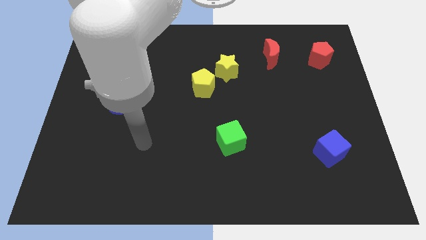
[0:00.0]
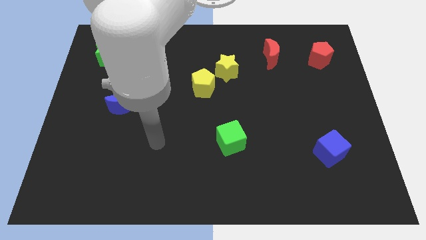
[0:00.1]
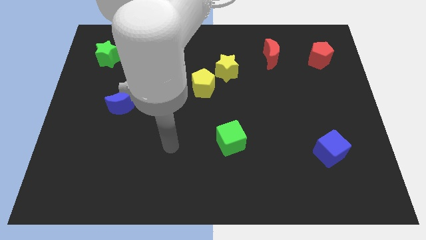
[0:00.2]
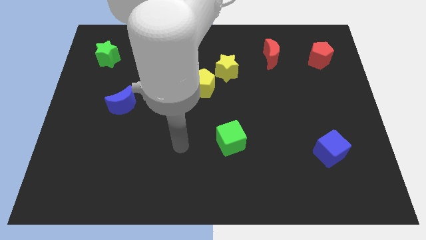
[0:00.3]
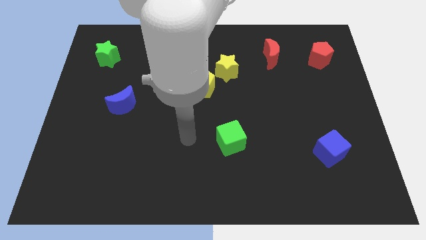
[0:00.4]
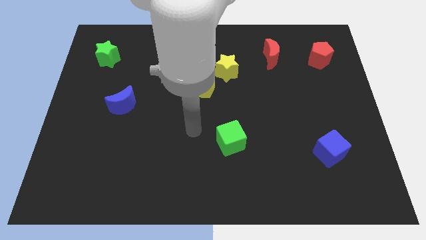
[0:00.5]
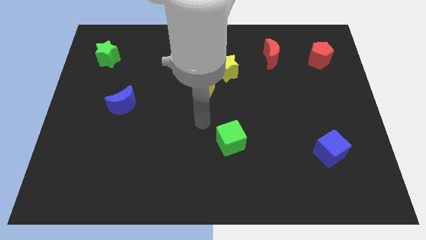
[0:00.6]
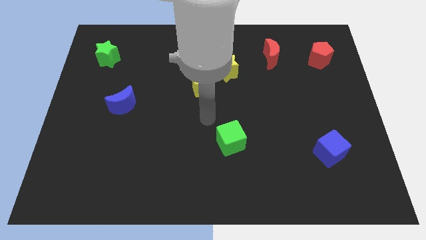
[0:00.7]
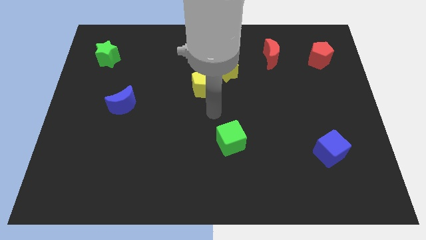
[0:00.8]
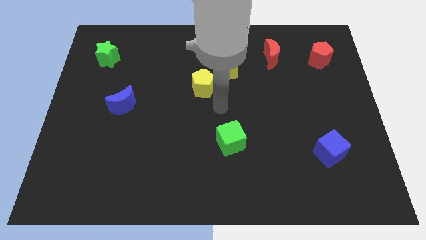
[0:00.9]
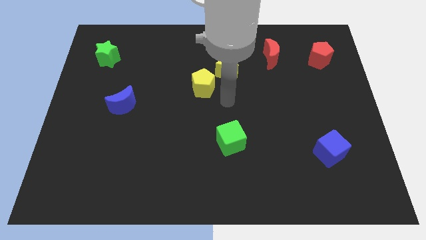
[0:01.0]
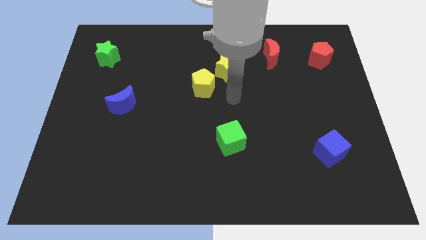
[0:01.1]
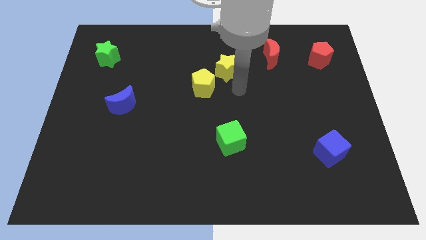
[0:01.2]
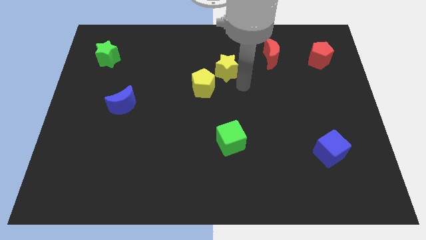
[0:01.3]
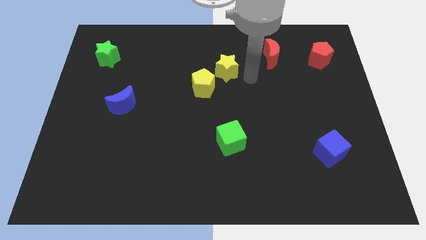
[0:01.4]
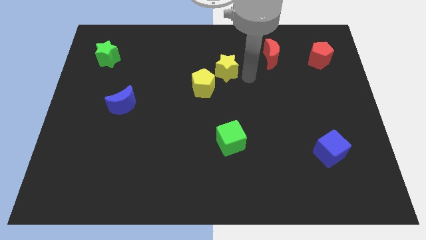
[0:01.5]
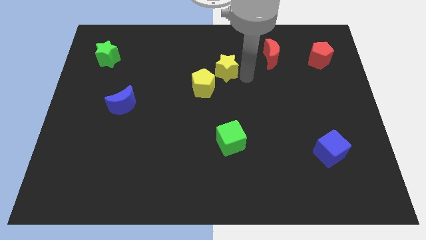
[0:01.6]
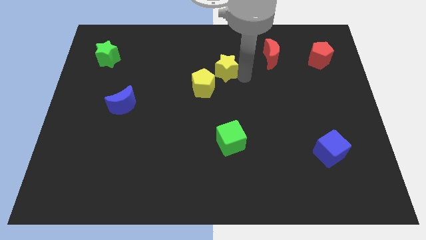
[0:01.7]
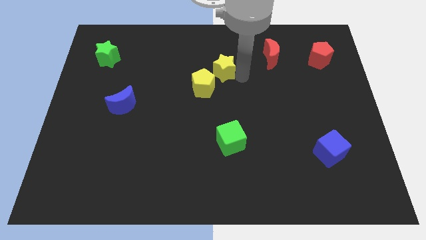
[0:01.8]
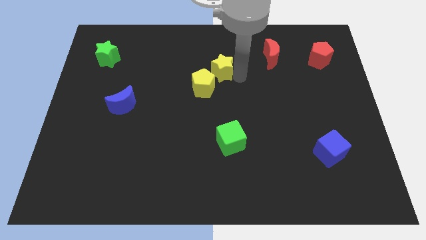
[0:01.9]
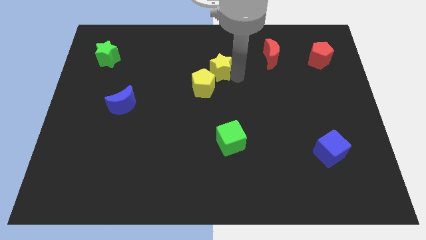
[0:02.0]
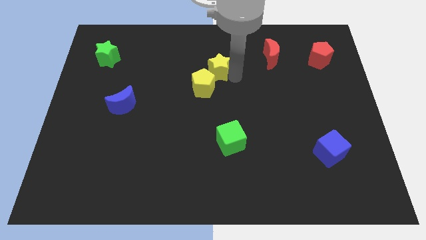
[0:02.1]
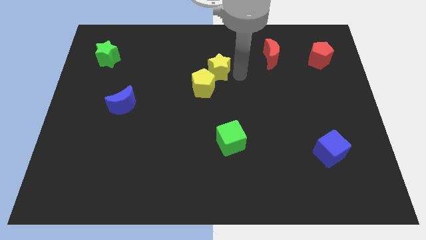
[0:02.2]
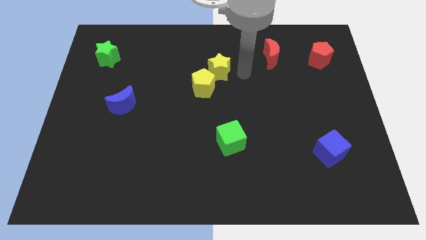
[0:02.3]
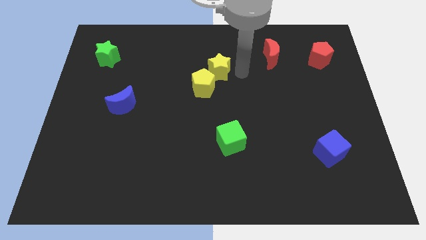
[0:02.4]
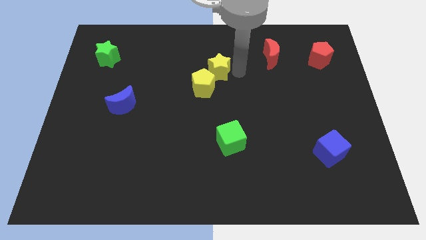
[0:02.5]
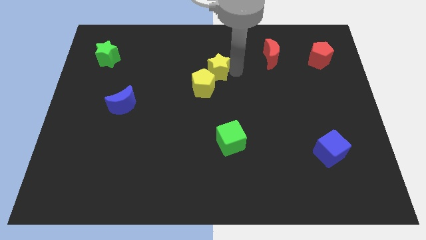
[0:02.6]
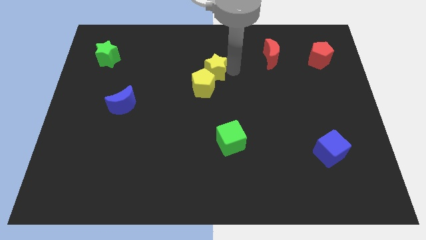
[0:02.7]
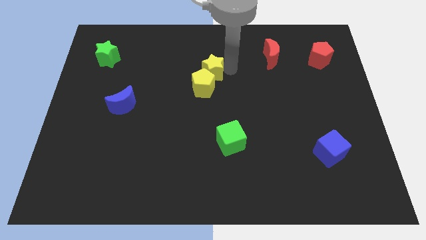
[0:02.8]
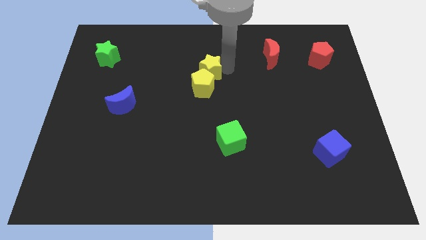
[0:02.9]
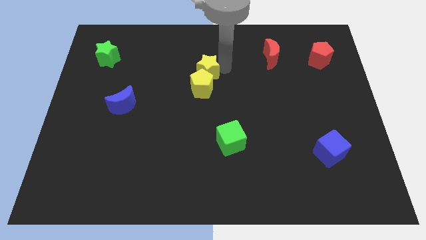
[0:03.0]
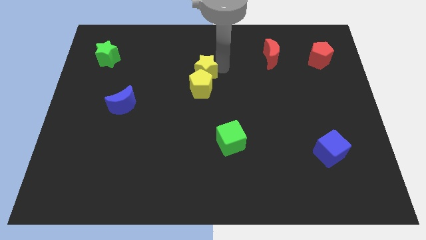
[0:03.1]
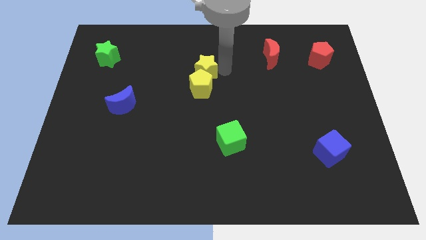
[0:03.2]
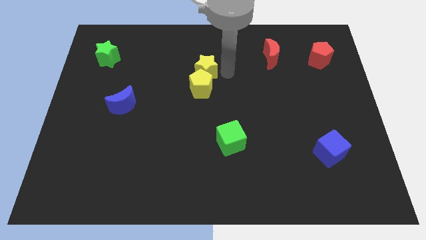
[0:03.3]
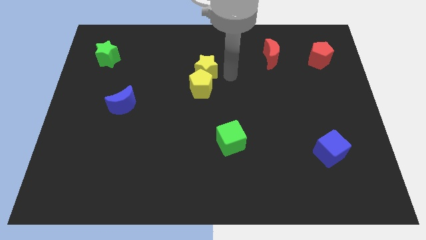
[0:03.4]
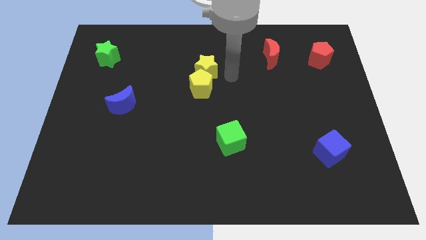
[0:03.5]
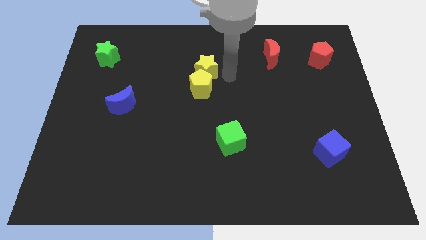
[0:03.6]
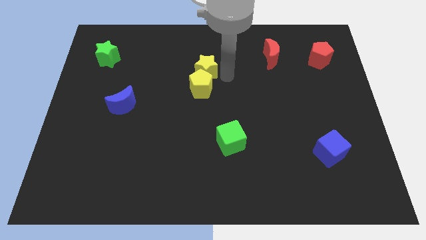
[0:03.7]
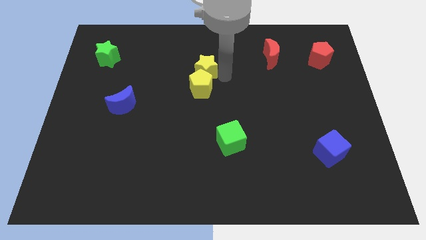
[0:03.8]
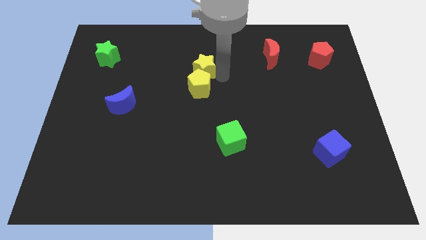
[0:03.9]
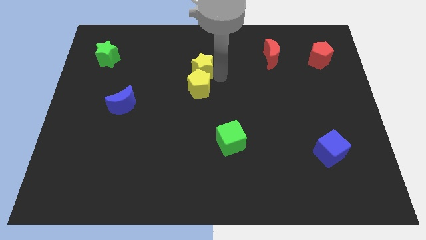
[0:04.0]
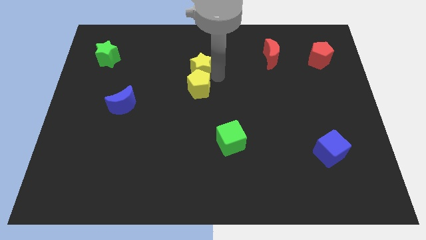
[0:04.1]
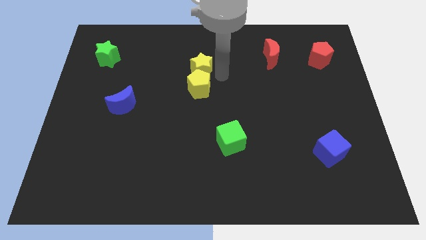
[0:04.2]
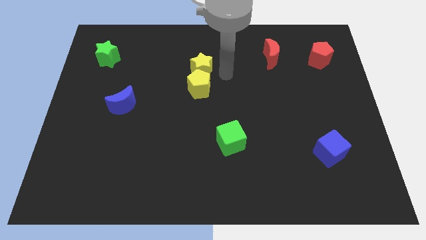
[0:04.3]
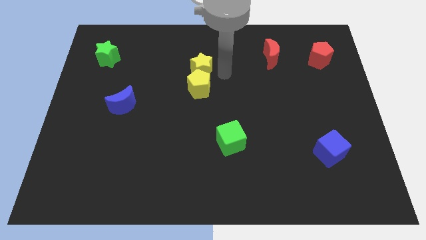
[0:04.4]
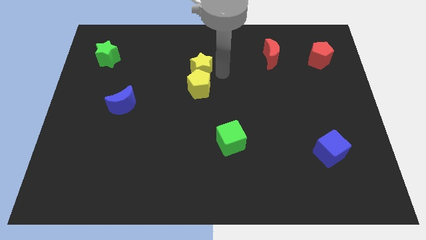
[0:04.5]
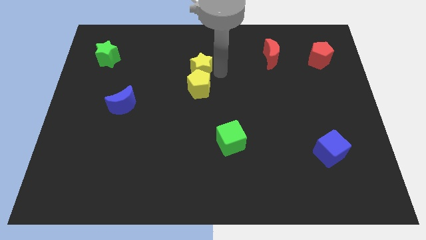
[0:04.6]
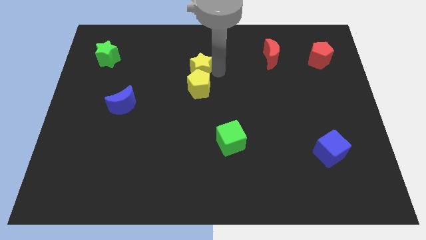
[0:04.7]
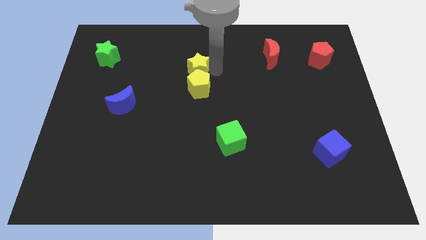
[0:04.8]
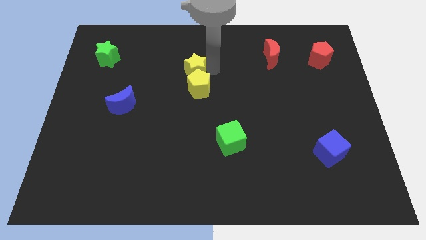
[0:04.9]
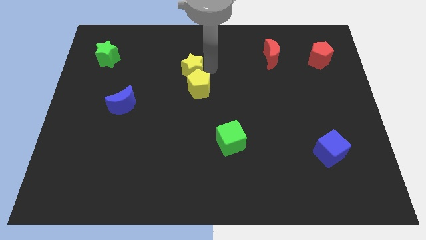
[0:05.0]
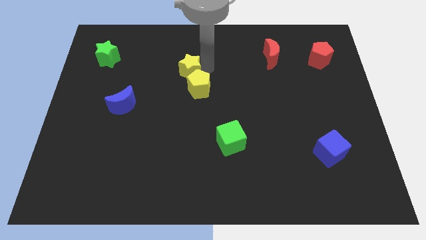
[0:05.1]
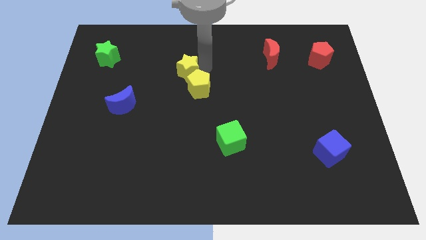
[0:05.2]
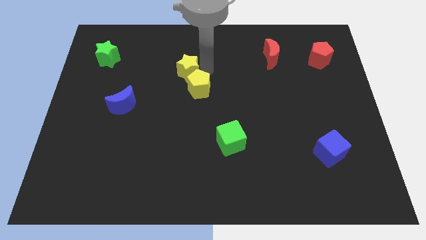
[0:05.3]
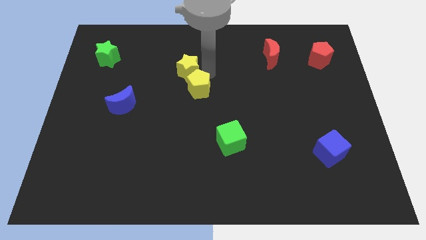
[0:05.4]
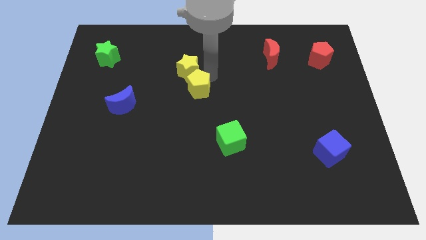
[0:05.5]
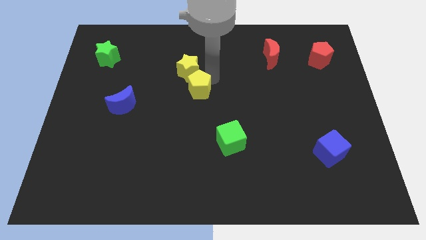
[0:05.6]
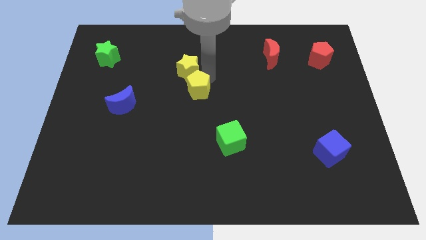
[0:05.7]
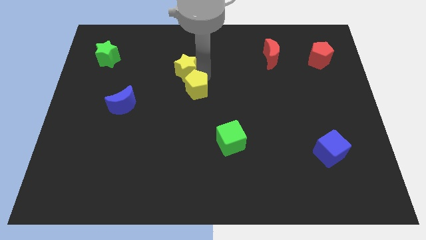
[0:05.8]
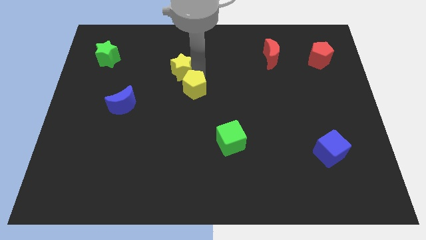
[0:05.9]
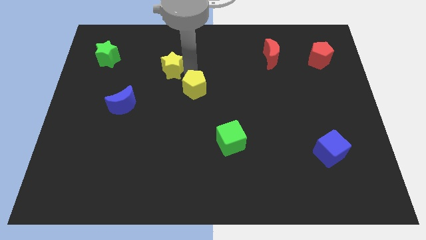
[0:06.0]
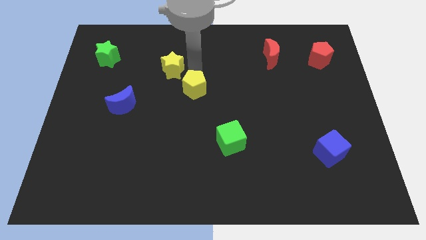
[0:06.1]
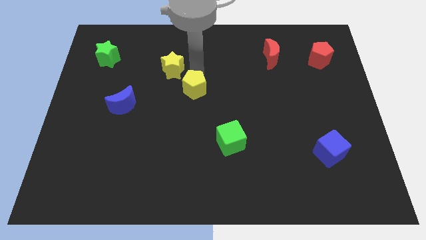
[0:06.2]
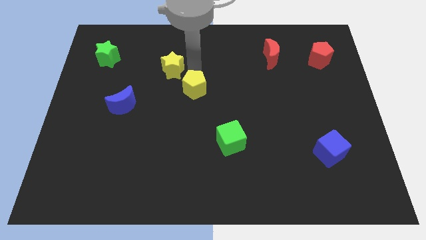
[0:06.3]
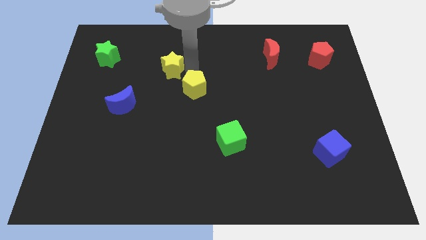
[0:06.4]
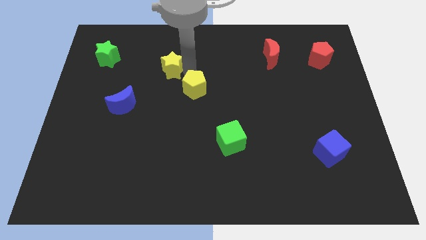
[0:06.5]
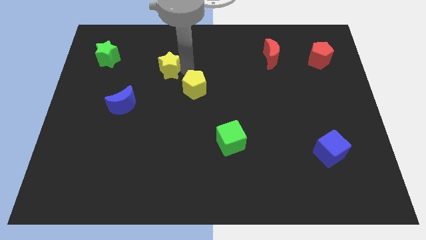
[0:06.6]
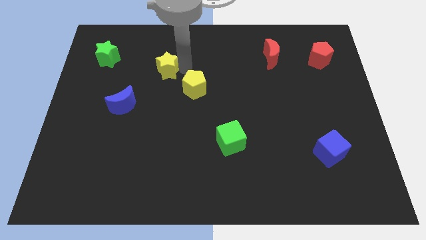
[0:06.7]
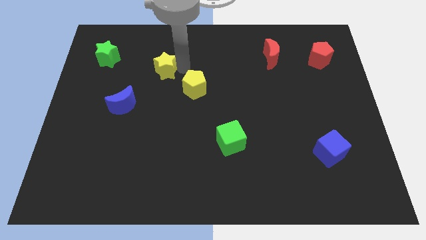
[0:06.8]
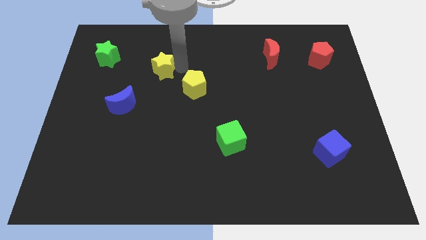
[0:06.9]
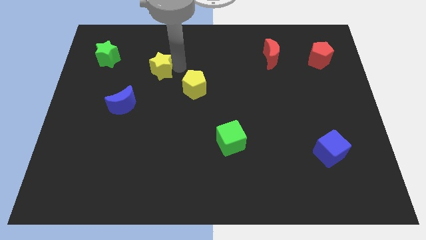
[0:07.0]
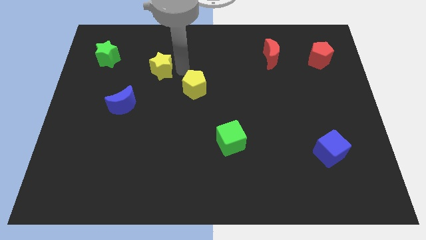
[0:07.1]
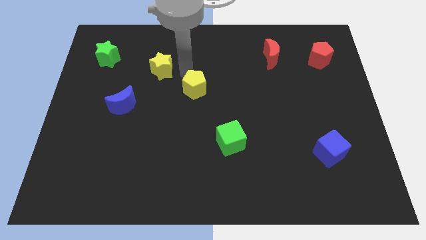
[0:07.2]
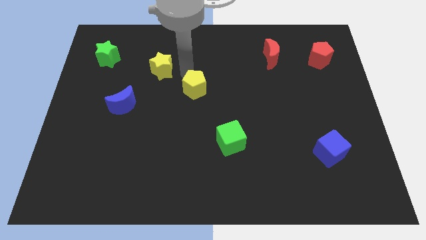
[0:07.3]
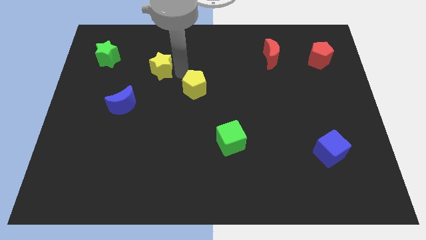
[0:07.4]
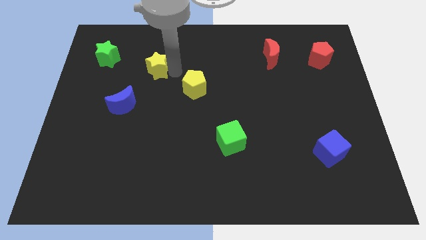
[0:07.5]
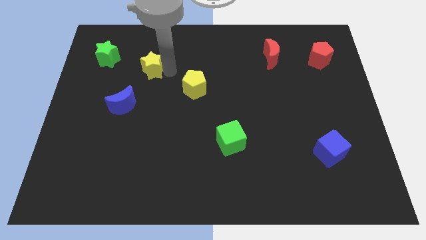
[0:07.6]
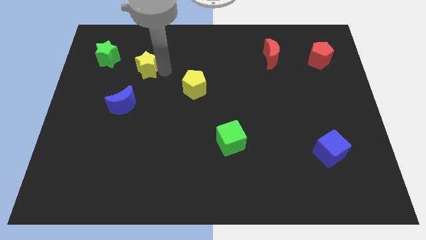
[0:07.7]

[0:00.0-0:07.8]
push the yellow star left
